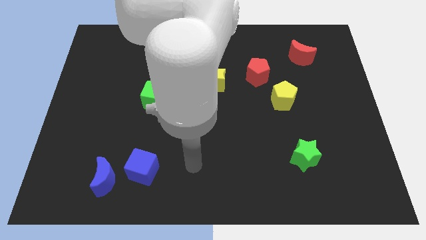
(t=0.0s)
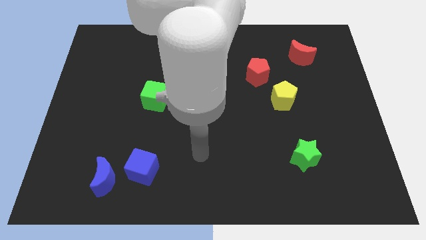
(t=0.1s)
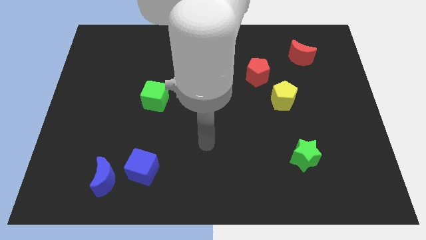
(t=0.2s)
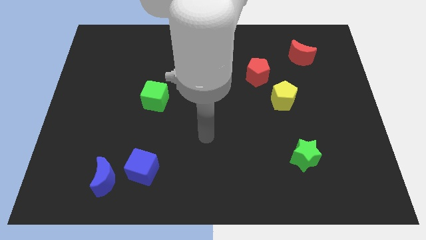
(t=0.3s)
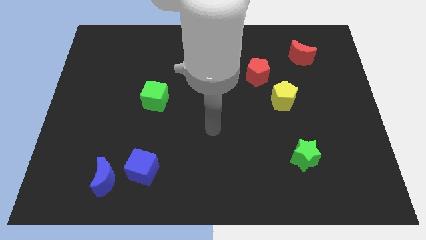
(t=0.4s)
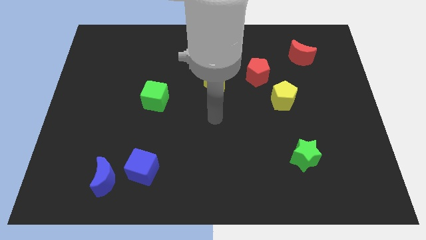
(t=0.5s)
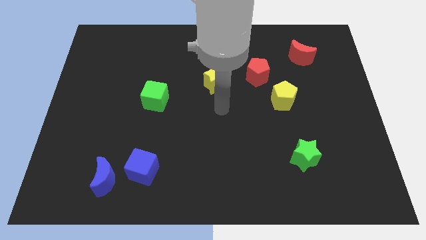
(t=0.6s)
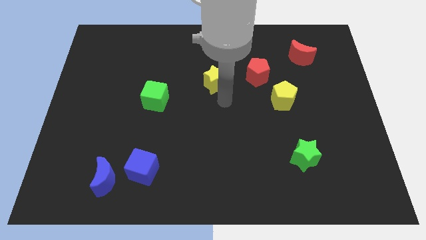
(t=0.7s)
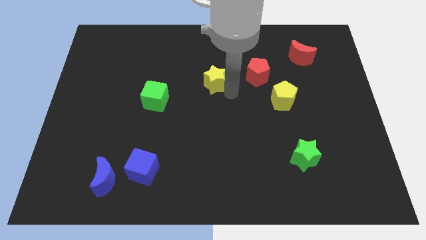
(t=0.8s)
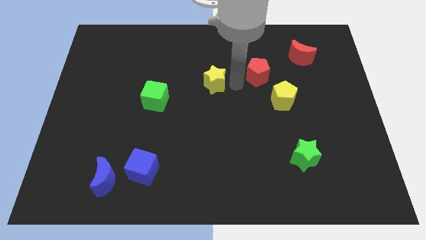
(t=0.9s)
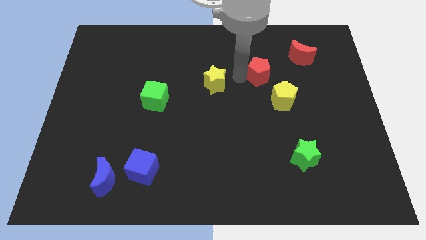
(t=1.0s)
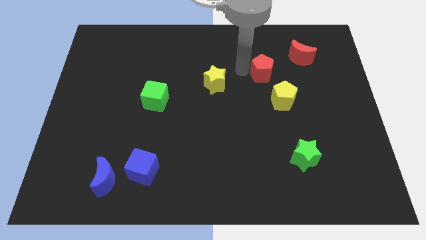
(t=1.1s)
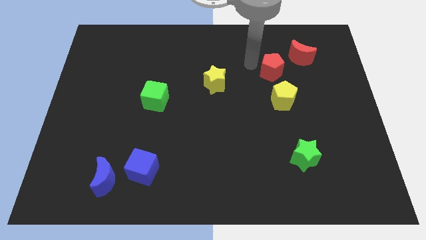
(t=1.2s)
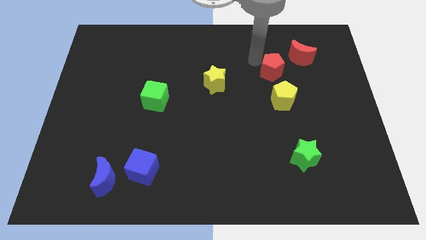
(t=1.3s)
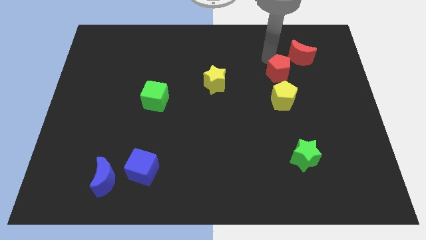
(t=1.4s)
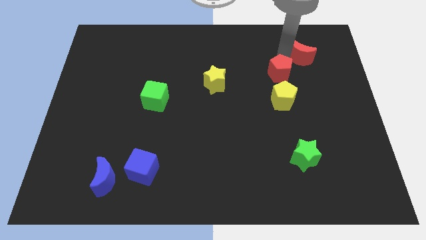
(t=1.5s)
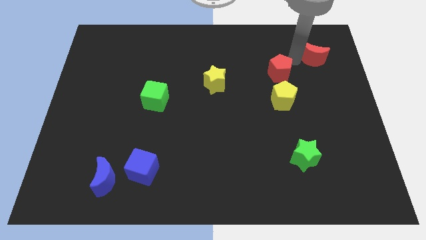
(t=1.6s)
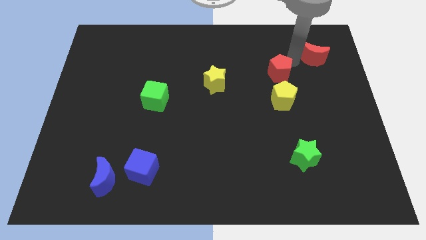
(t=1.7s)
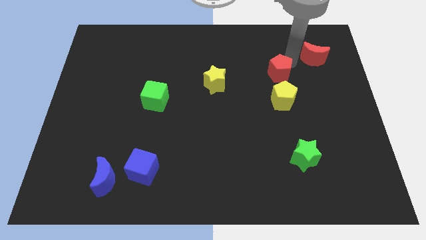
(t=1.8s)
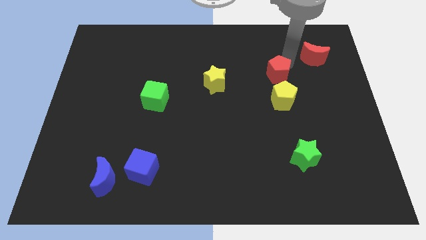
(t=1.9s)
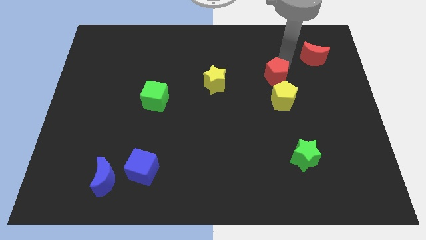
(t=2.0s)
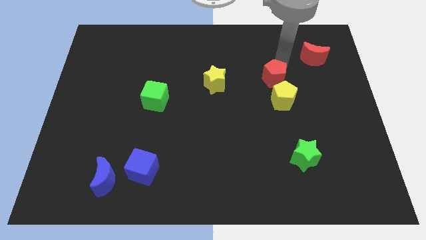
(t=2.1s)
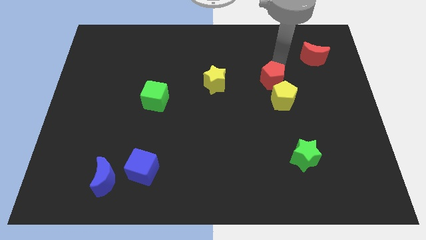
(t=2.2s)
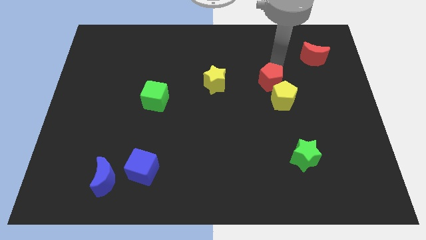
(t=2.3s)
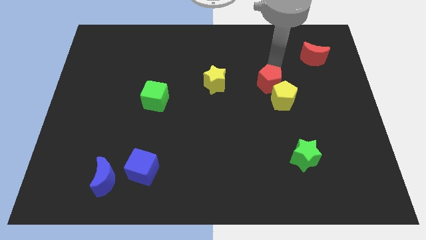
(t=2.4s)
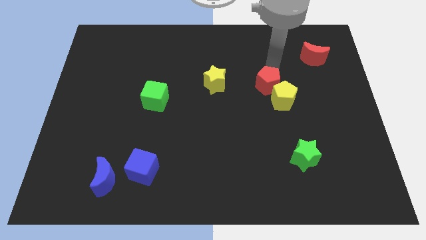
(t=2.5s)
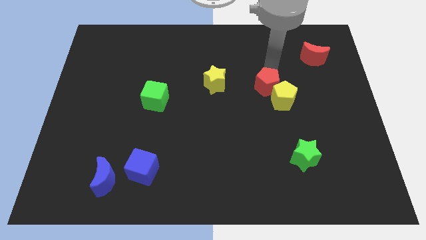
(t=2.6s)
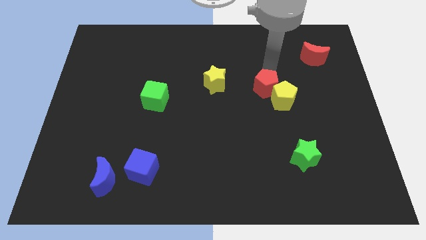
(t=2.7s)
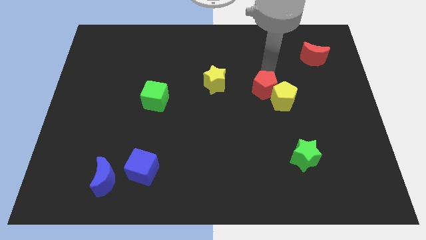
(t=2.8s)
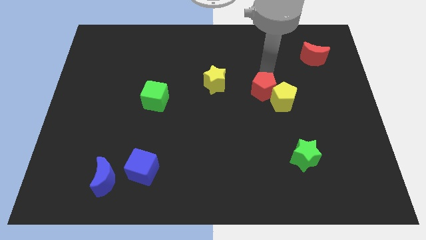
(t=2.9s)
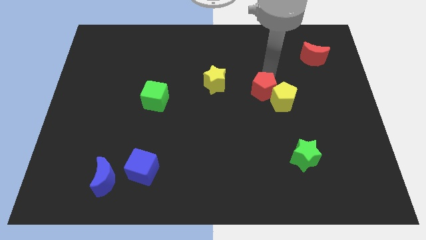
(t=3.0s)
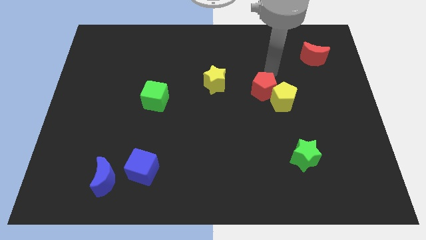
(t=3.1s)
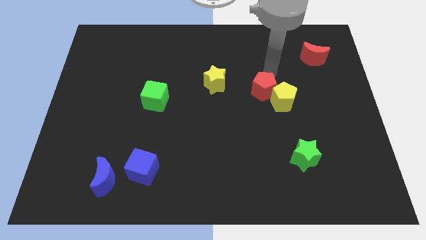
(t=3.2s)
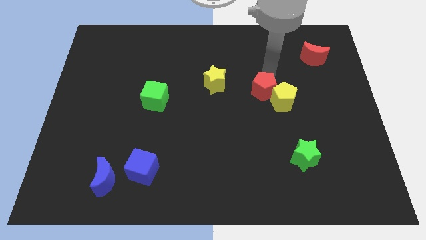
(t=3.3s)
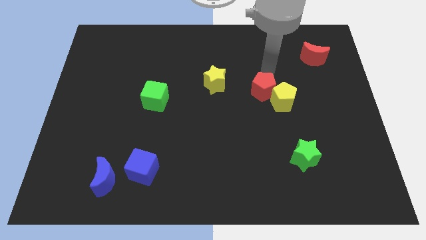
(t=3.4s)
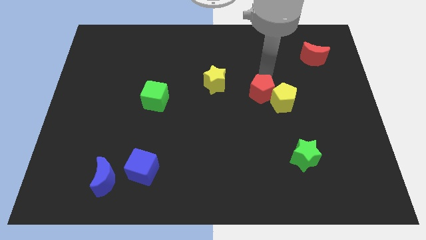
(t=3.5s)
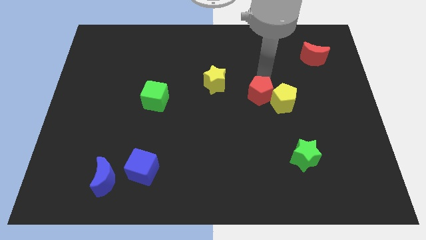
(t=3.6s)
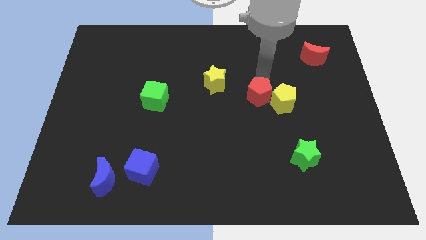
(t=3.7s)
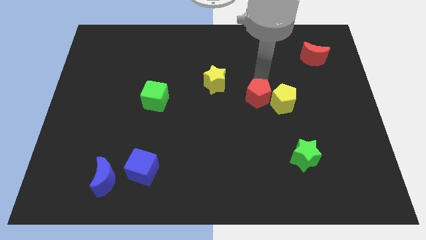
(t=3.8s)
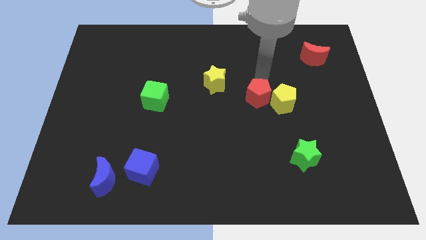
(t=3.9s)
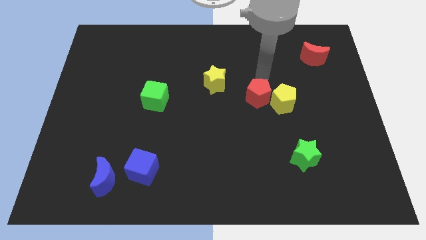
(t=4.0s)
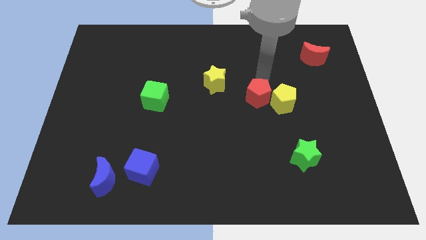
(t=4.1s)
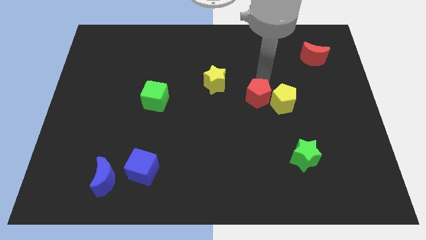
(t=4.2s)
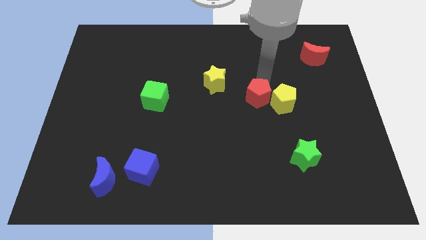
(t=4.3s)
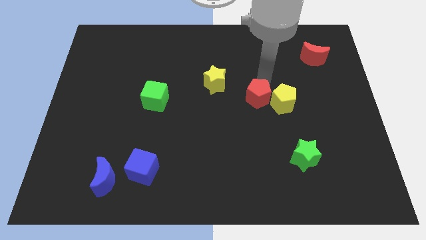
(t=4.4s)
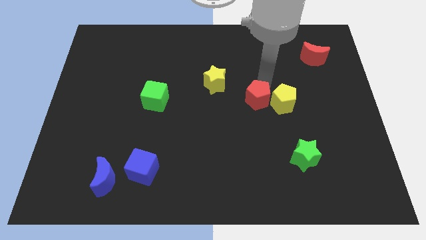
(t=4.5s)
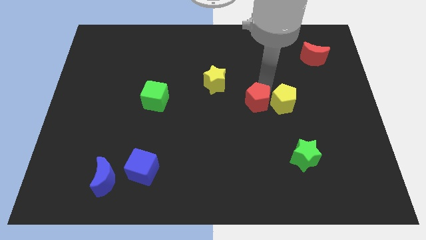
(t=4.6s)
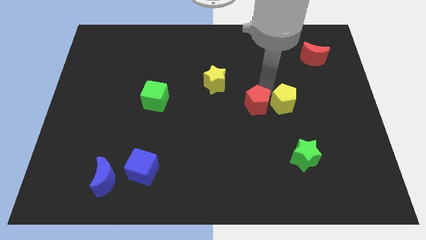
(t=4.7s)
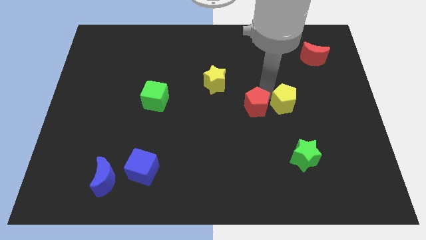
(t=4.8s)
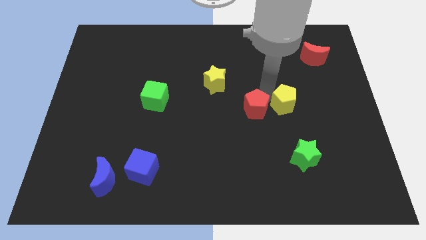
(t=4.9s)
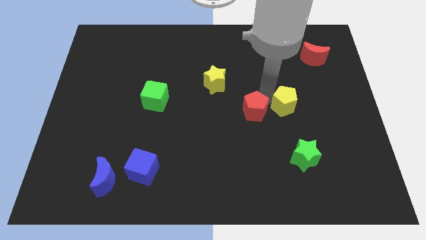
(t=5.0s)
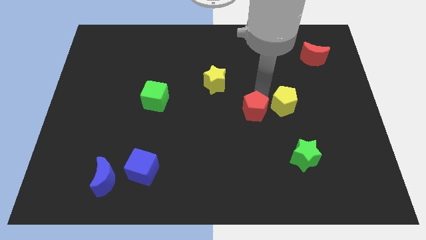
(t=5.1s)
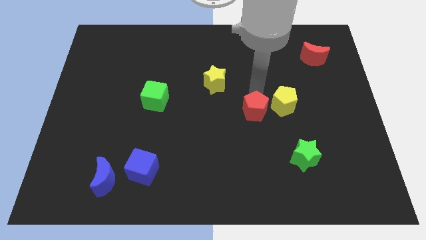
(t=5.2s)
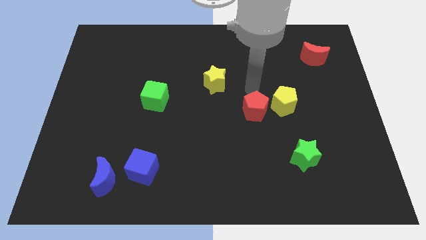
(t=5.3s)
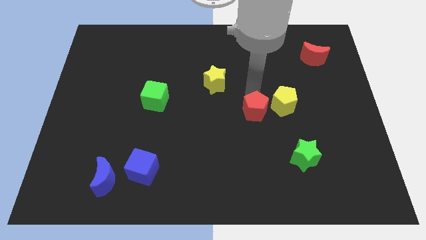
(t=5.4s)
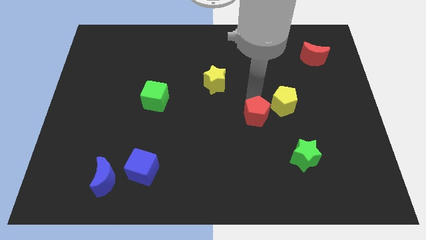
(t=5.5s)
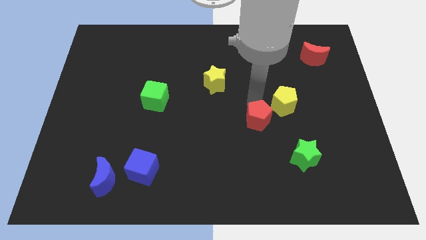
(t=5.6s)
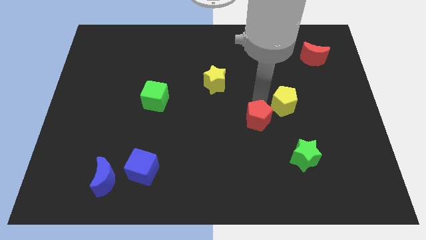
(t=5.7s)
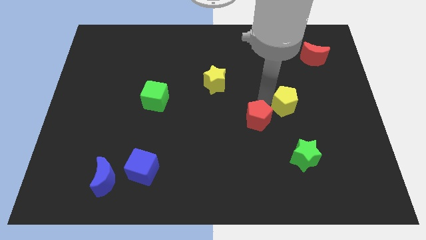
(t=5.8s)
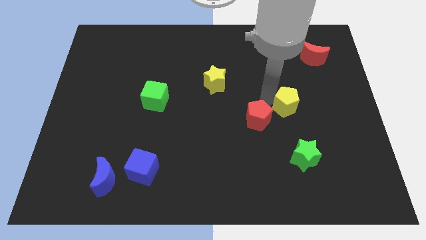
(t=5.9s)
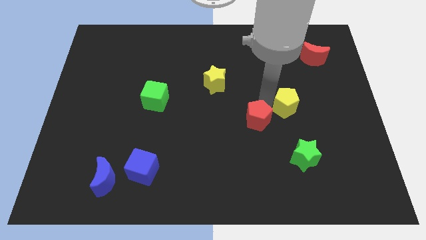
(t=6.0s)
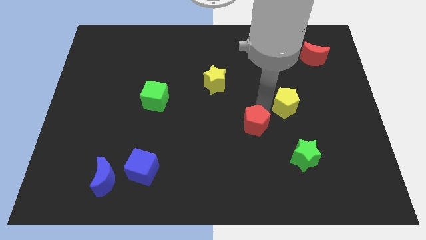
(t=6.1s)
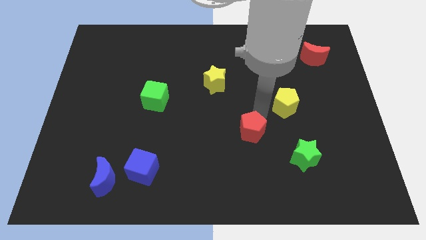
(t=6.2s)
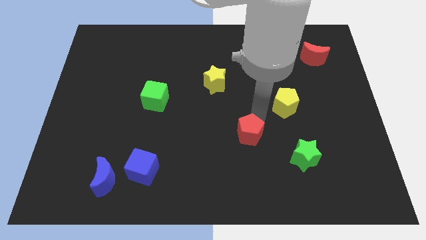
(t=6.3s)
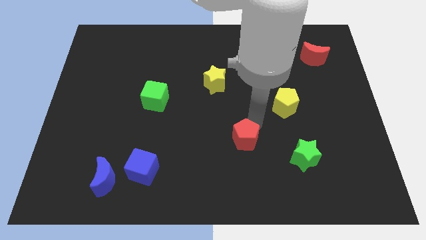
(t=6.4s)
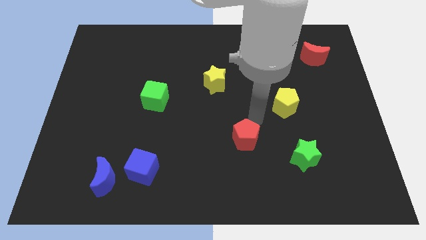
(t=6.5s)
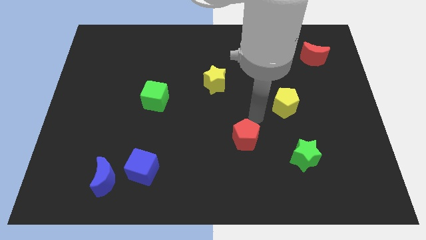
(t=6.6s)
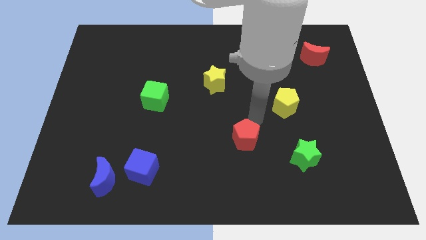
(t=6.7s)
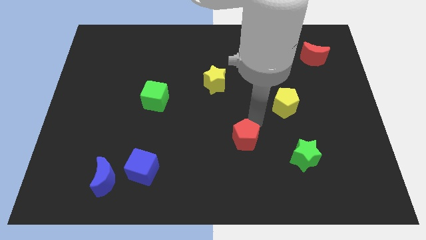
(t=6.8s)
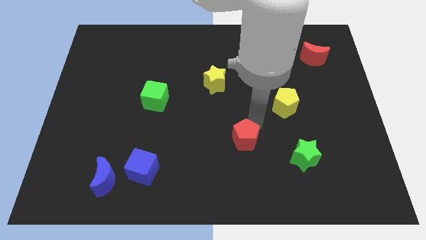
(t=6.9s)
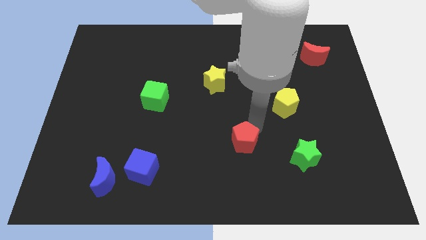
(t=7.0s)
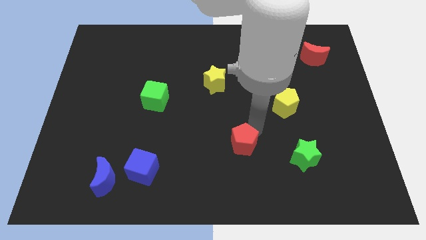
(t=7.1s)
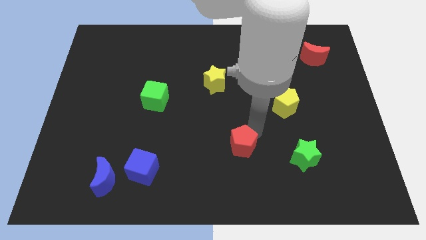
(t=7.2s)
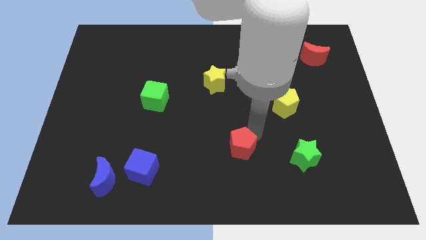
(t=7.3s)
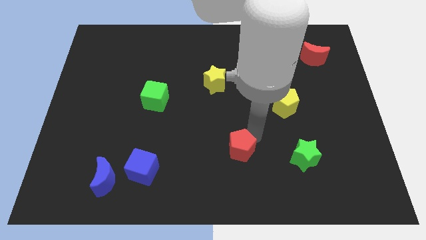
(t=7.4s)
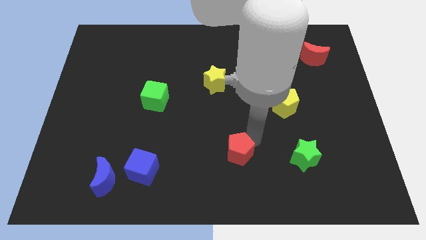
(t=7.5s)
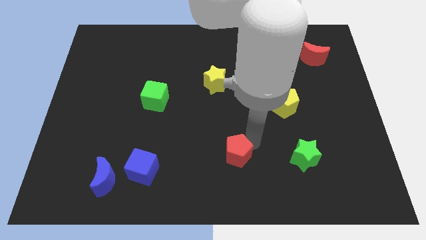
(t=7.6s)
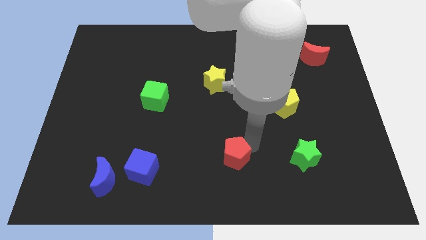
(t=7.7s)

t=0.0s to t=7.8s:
put the red pentagon to the bottom
